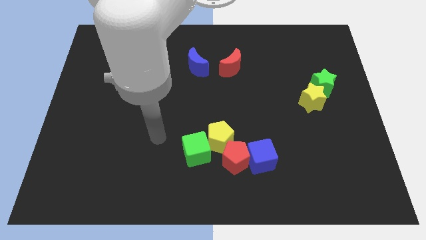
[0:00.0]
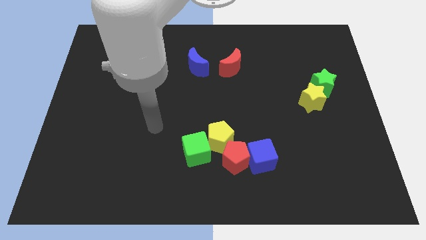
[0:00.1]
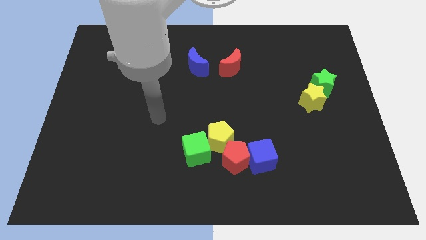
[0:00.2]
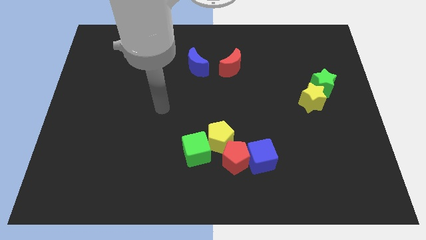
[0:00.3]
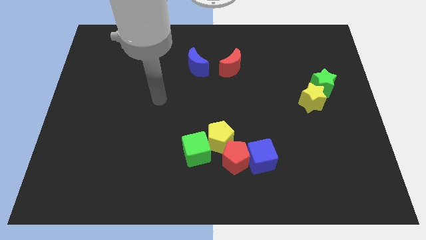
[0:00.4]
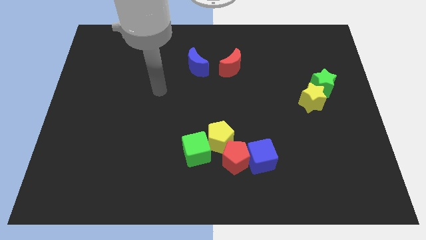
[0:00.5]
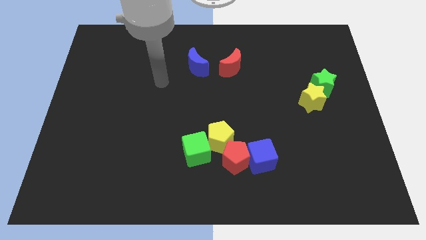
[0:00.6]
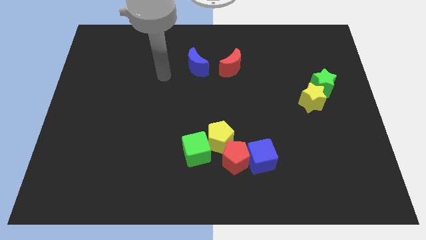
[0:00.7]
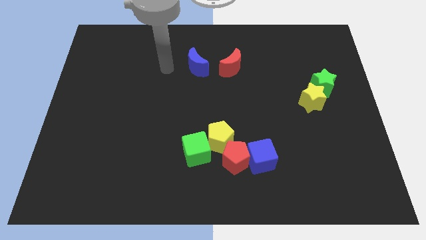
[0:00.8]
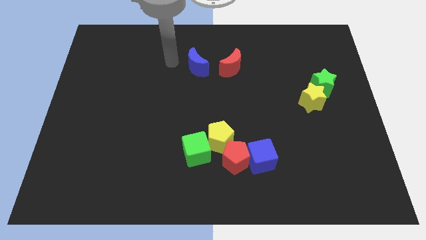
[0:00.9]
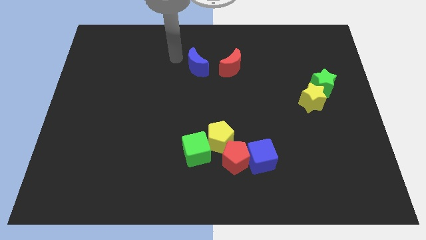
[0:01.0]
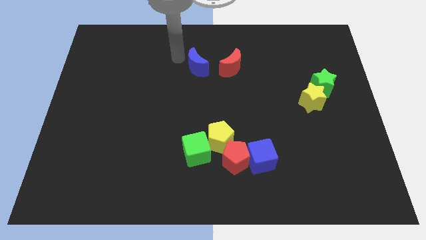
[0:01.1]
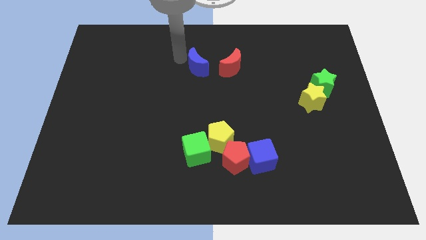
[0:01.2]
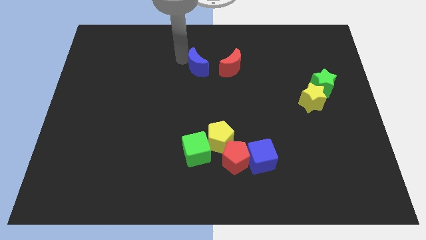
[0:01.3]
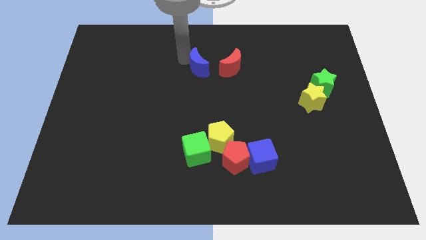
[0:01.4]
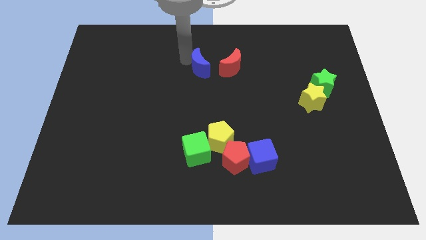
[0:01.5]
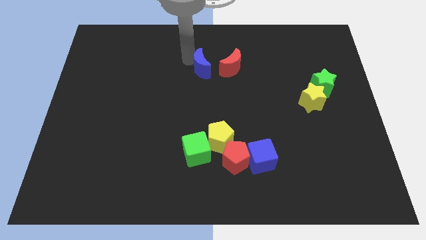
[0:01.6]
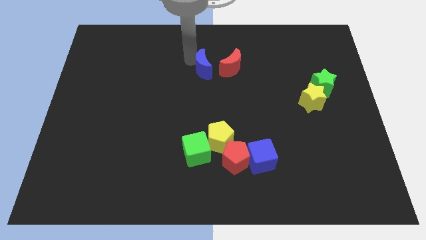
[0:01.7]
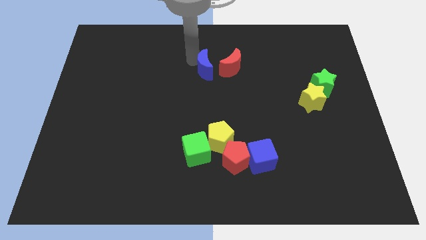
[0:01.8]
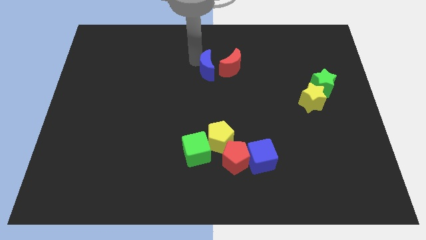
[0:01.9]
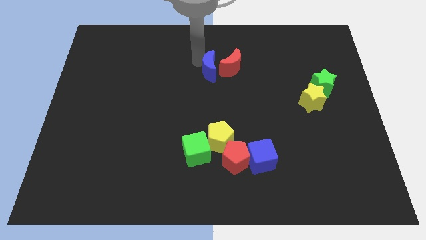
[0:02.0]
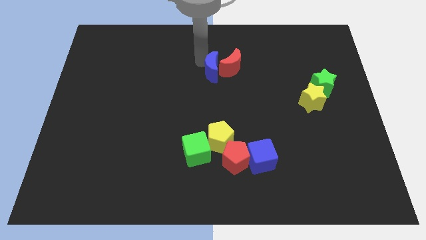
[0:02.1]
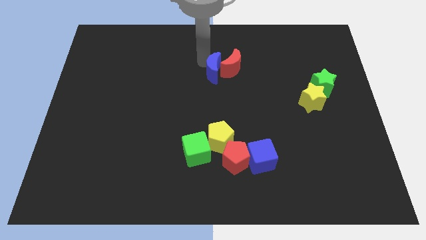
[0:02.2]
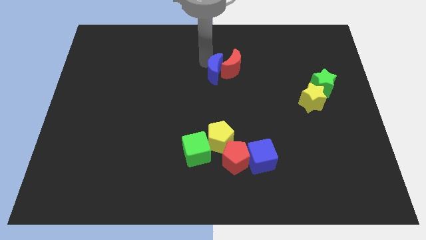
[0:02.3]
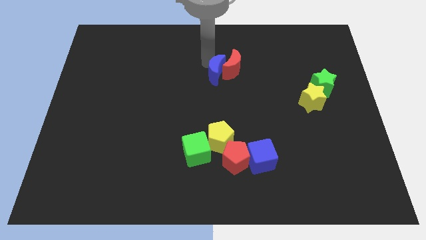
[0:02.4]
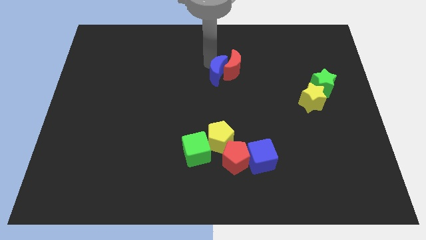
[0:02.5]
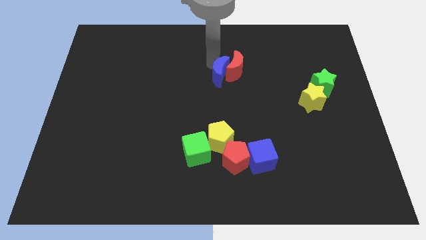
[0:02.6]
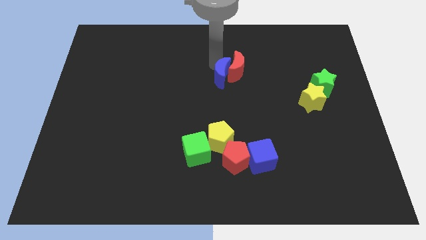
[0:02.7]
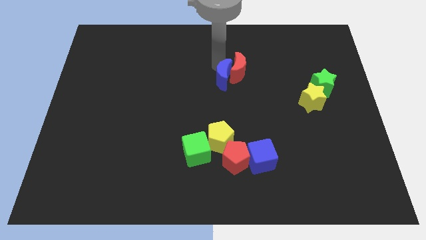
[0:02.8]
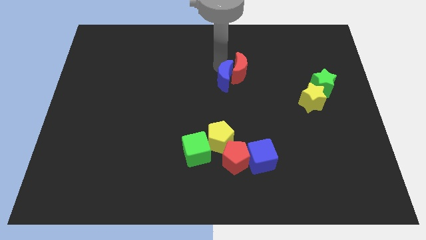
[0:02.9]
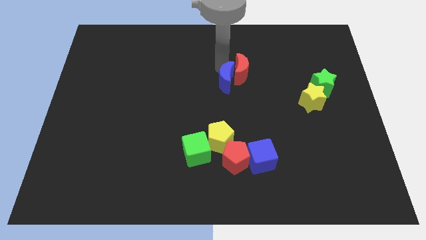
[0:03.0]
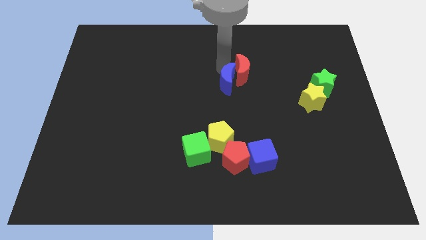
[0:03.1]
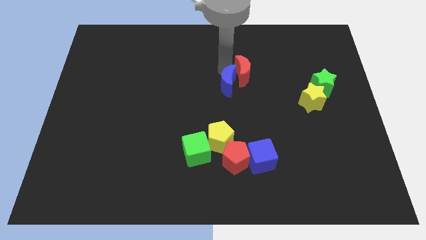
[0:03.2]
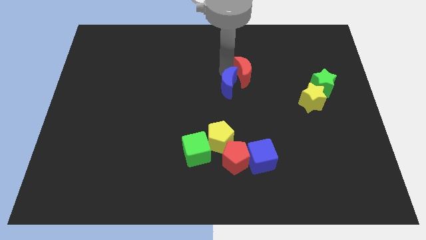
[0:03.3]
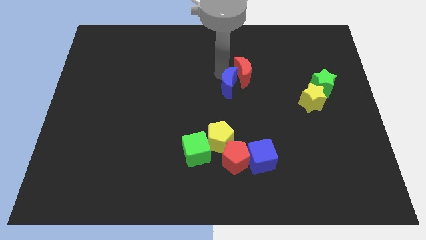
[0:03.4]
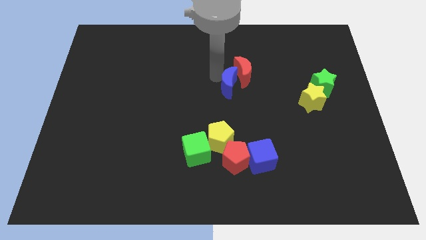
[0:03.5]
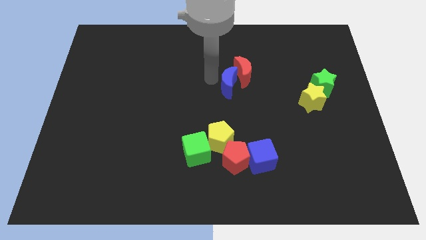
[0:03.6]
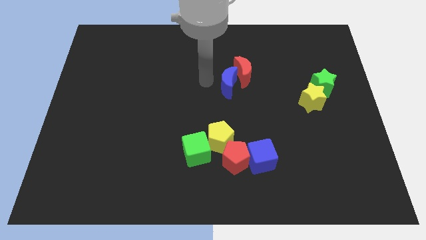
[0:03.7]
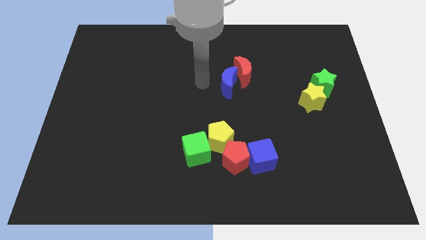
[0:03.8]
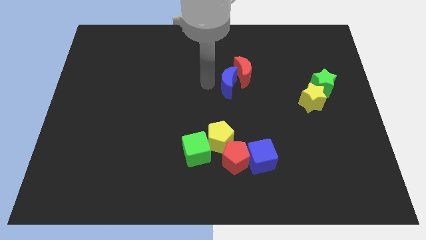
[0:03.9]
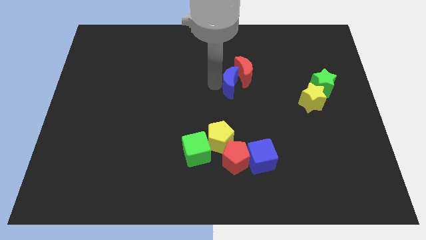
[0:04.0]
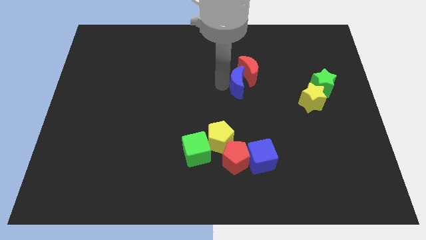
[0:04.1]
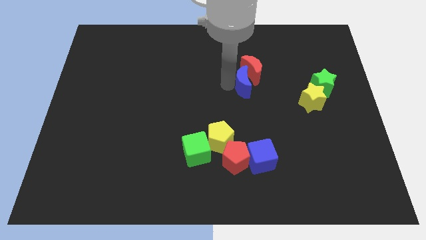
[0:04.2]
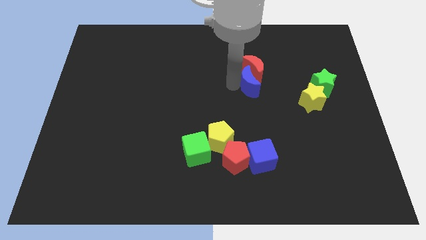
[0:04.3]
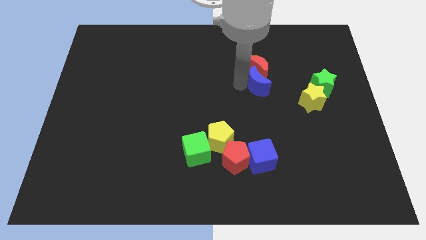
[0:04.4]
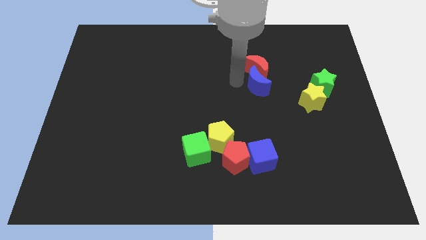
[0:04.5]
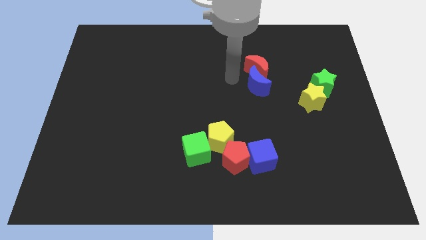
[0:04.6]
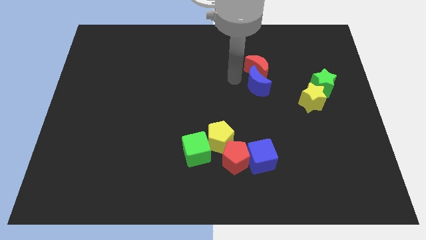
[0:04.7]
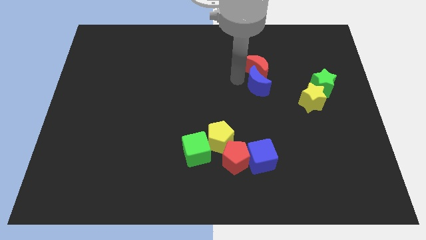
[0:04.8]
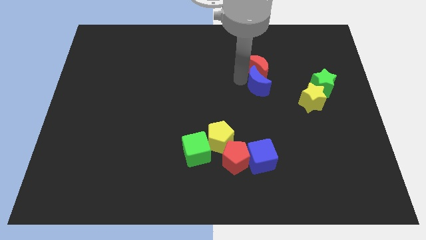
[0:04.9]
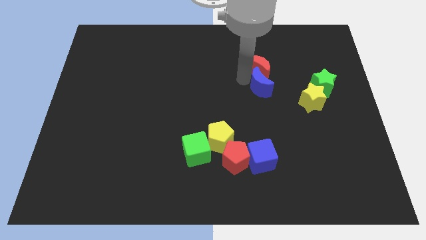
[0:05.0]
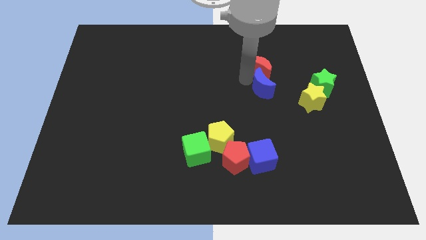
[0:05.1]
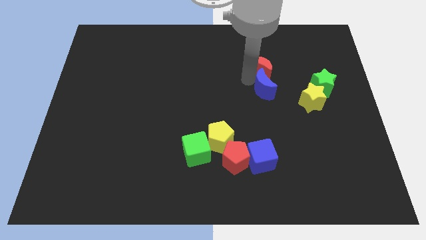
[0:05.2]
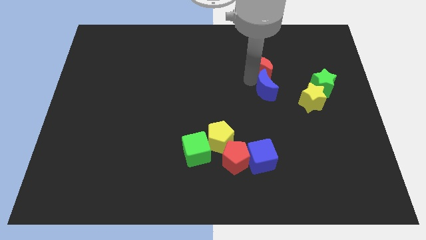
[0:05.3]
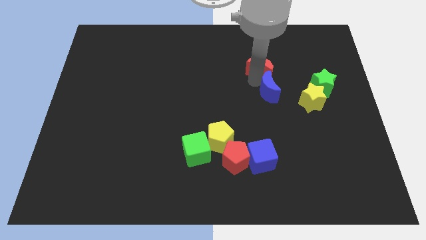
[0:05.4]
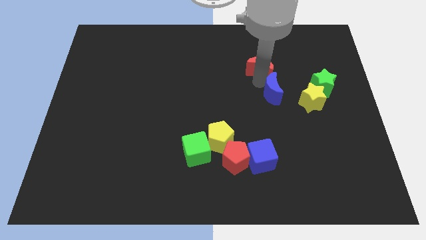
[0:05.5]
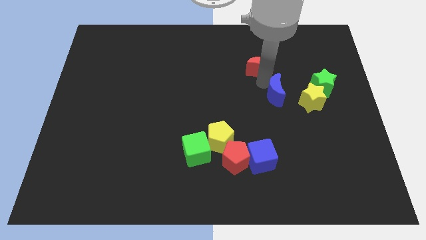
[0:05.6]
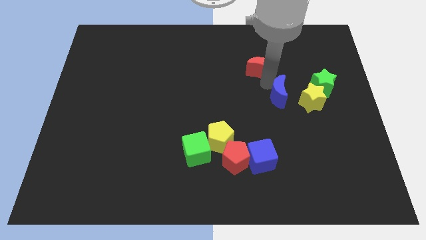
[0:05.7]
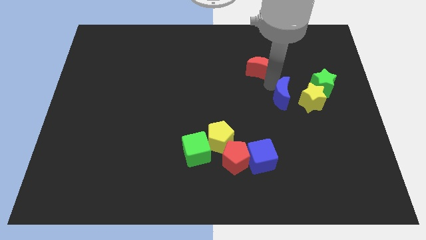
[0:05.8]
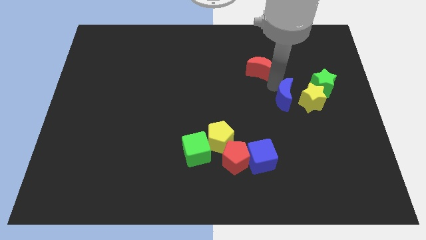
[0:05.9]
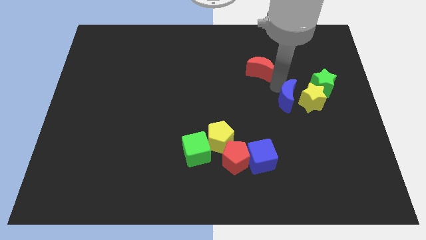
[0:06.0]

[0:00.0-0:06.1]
slide the blue moon to the yellow star

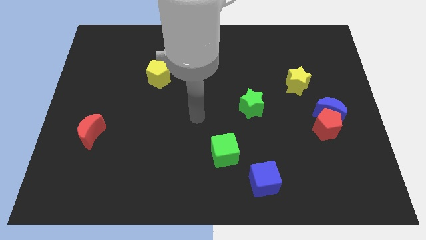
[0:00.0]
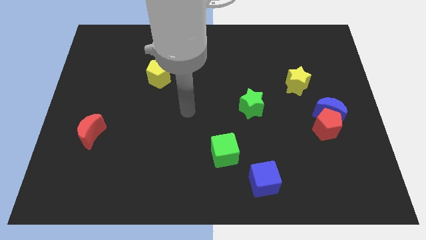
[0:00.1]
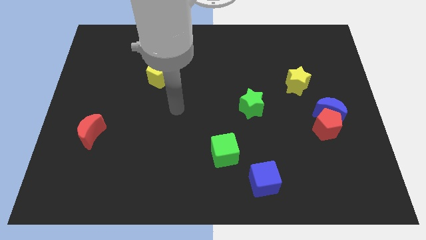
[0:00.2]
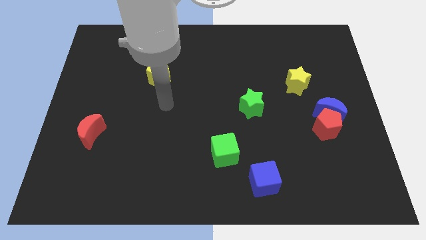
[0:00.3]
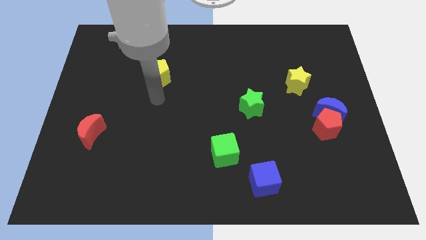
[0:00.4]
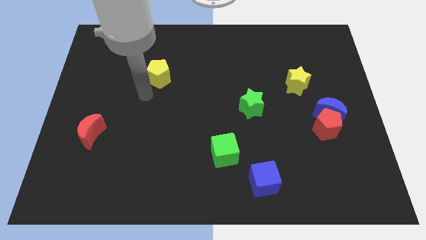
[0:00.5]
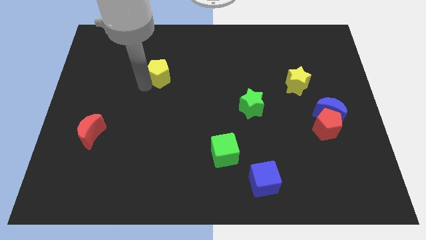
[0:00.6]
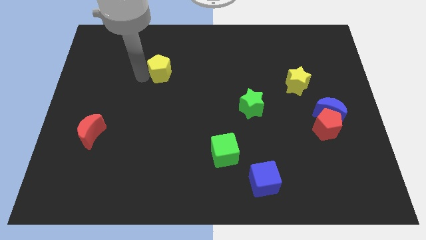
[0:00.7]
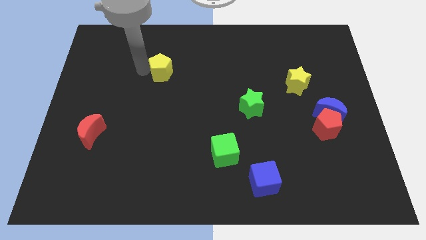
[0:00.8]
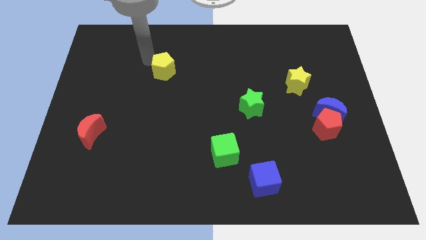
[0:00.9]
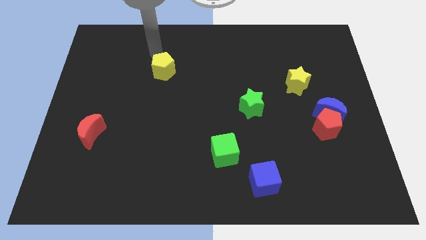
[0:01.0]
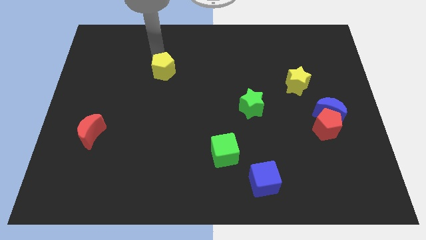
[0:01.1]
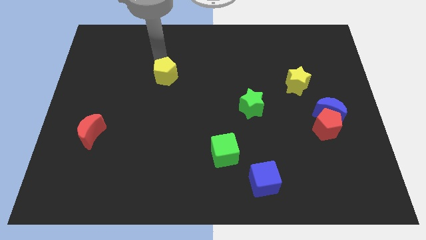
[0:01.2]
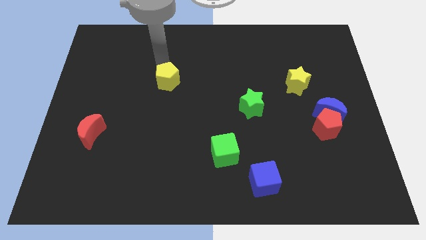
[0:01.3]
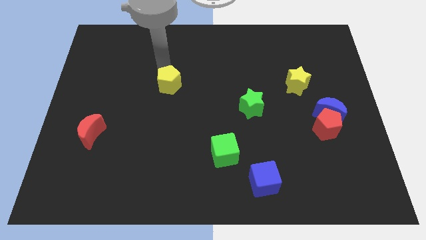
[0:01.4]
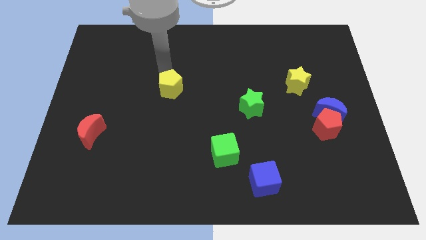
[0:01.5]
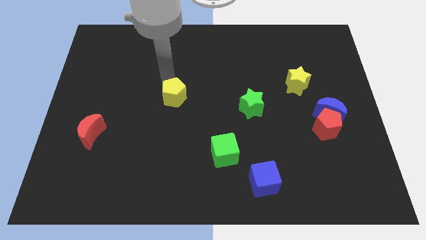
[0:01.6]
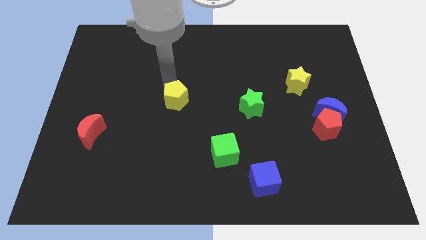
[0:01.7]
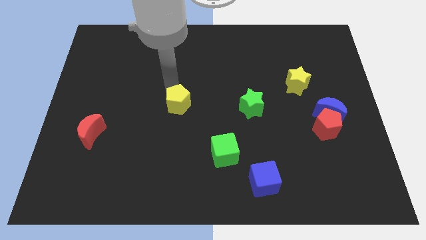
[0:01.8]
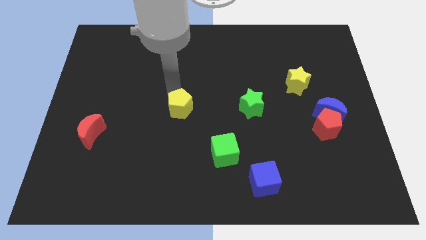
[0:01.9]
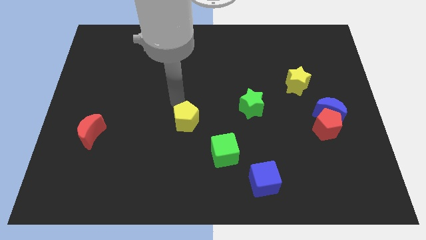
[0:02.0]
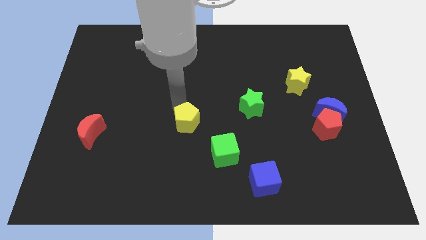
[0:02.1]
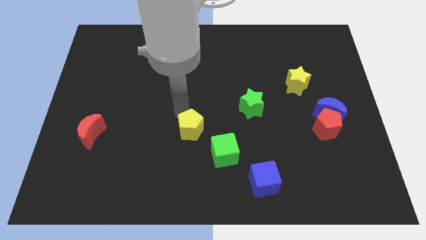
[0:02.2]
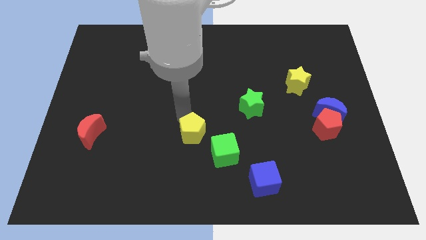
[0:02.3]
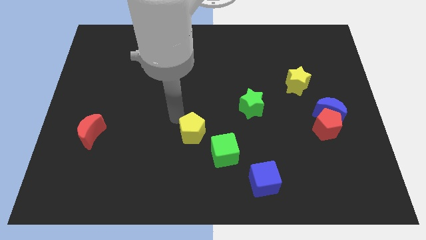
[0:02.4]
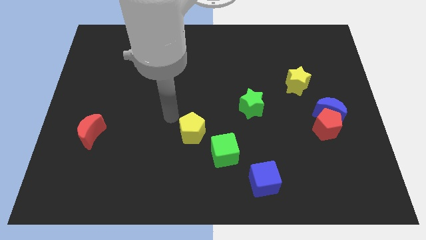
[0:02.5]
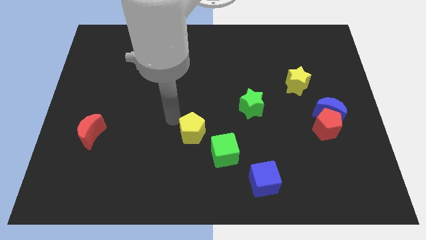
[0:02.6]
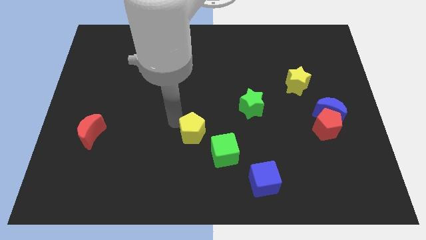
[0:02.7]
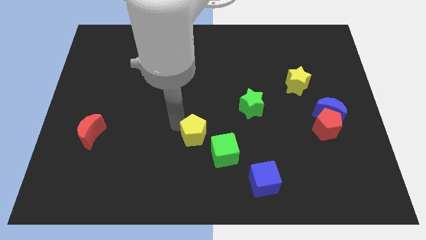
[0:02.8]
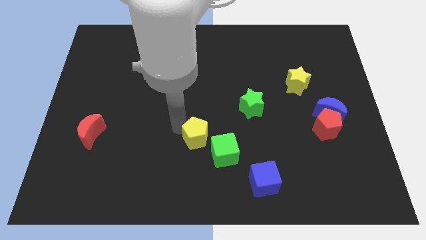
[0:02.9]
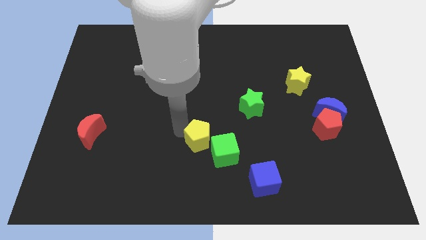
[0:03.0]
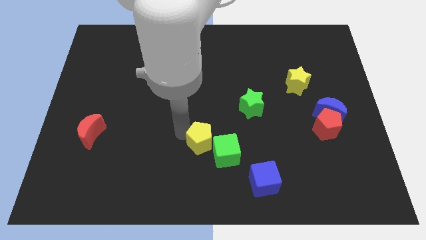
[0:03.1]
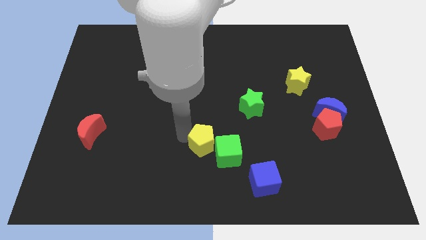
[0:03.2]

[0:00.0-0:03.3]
push the yellow pentagon towards the green cube
